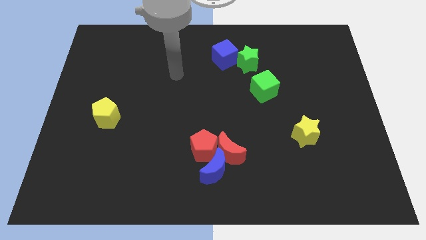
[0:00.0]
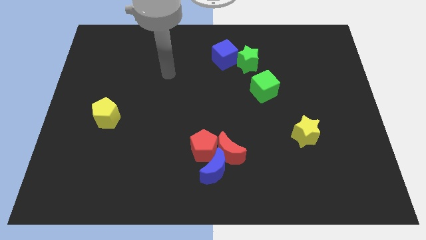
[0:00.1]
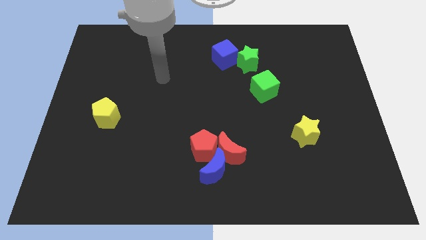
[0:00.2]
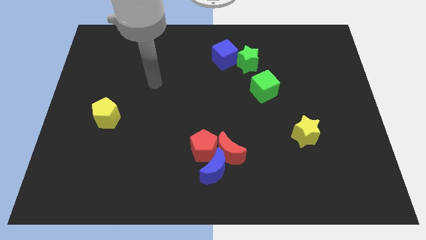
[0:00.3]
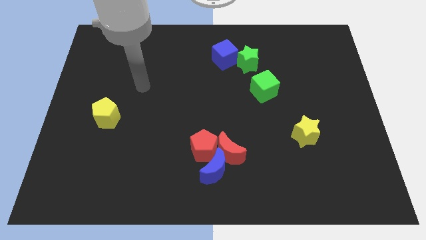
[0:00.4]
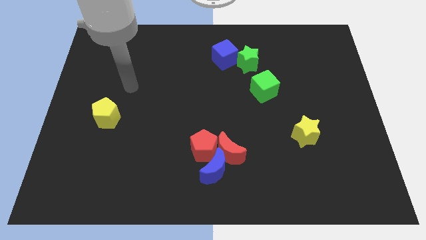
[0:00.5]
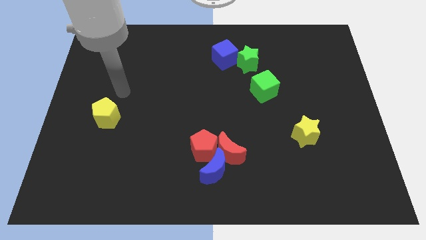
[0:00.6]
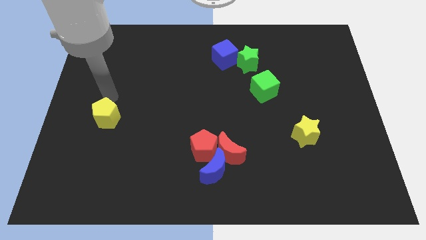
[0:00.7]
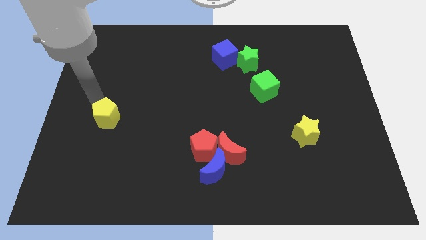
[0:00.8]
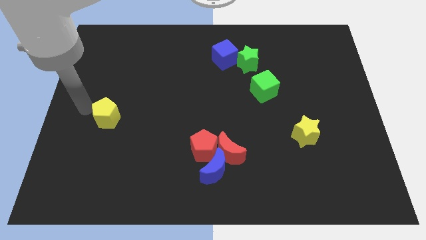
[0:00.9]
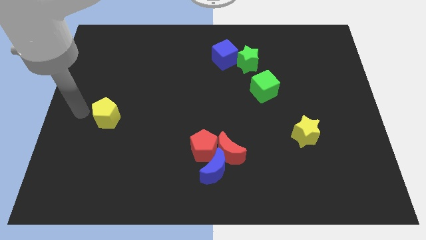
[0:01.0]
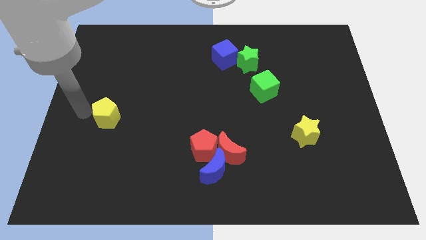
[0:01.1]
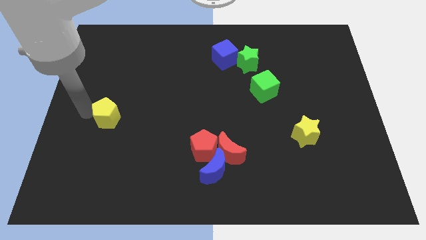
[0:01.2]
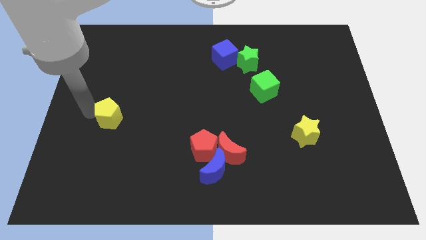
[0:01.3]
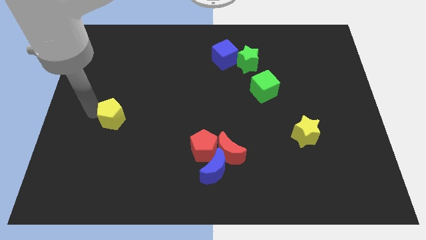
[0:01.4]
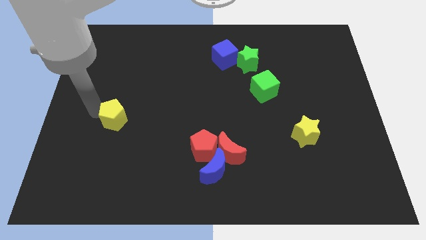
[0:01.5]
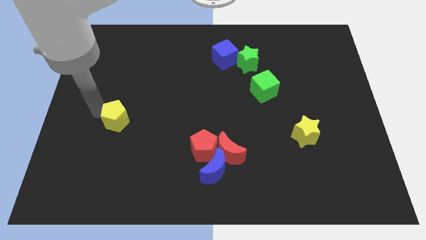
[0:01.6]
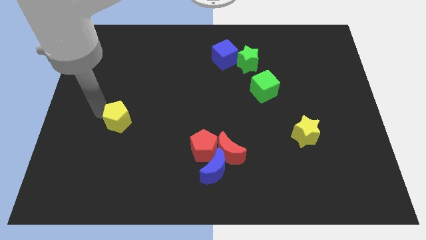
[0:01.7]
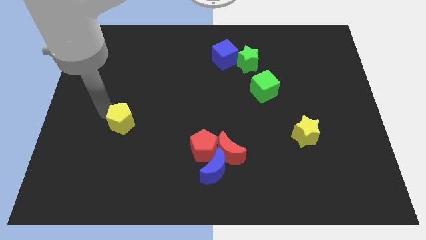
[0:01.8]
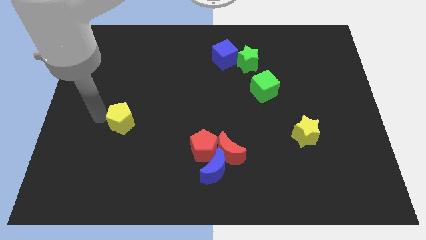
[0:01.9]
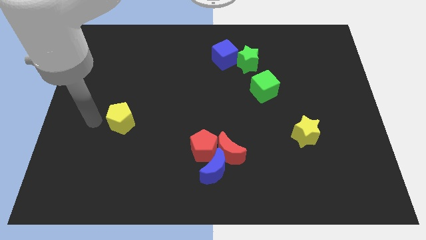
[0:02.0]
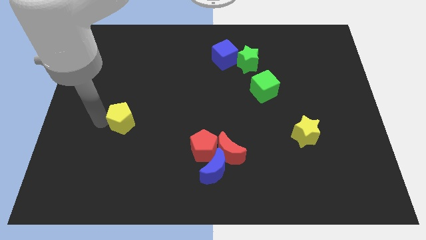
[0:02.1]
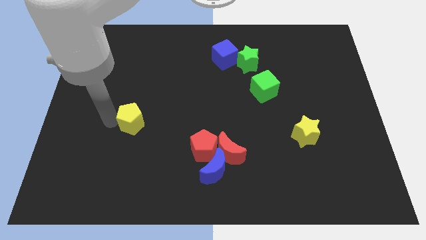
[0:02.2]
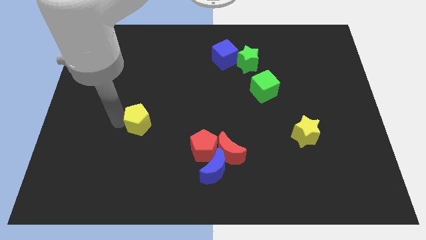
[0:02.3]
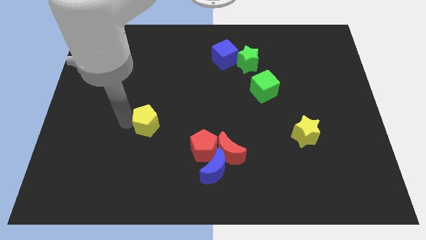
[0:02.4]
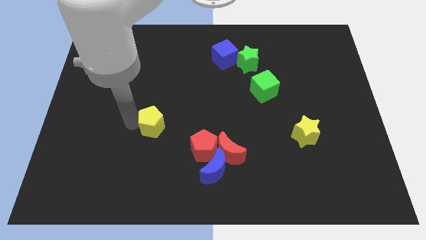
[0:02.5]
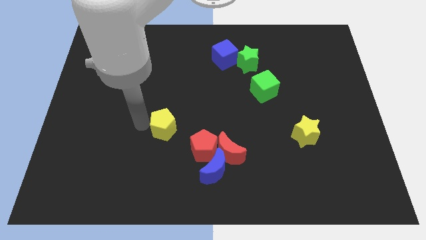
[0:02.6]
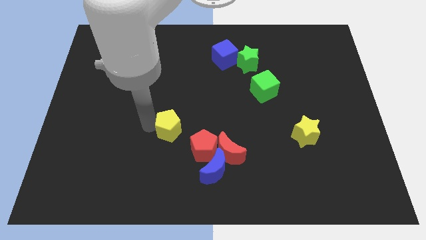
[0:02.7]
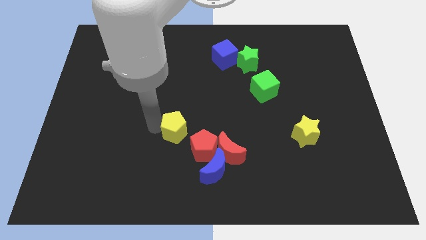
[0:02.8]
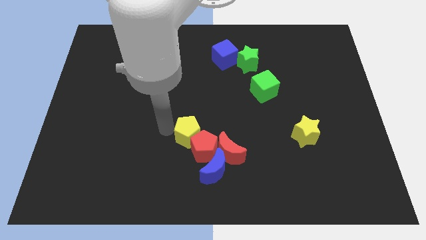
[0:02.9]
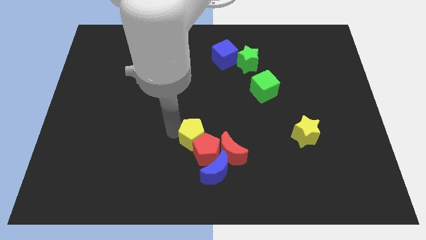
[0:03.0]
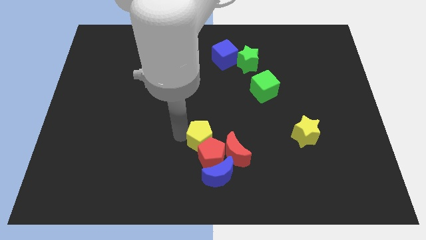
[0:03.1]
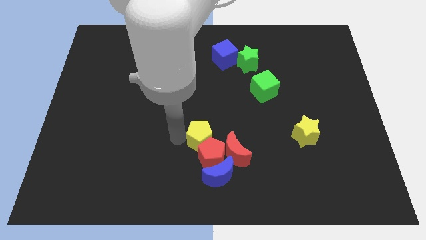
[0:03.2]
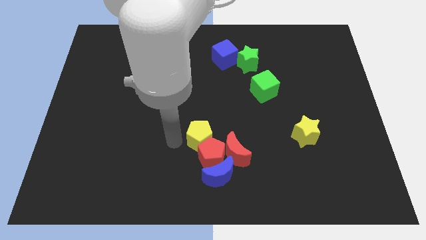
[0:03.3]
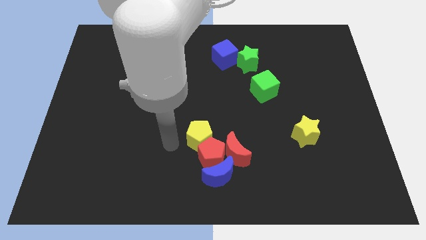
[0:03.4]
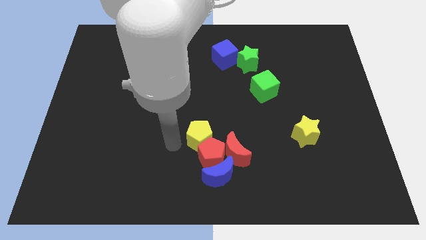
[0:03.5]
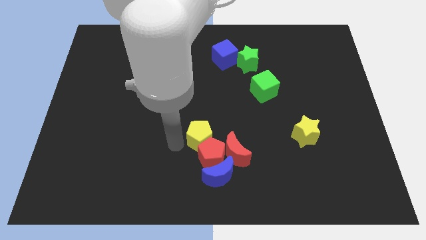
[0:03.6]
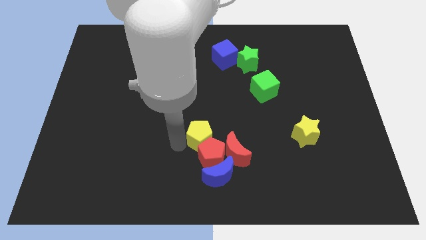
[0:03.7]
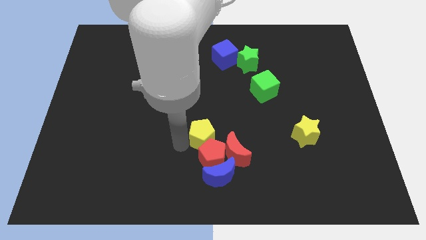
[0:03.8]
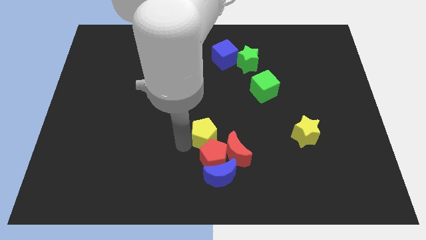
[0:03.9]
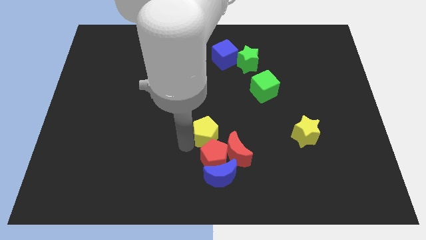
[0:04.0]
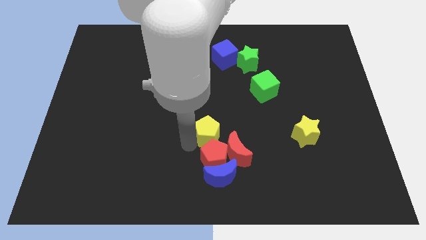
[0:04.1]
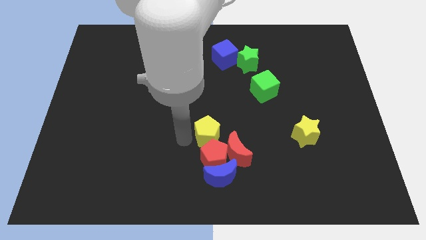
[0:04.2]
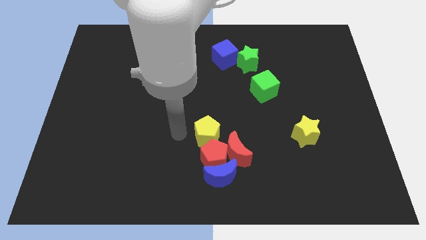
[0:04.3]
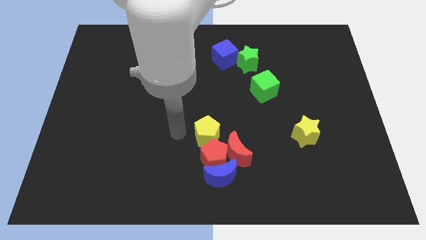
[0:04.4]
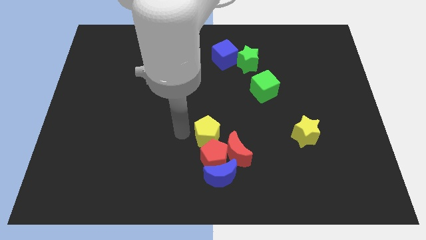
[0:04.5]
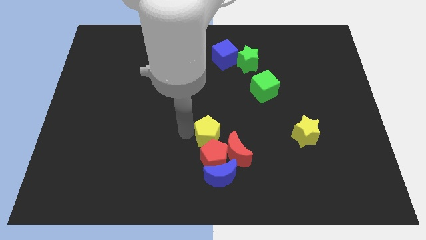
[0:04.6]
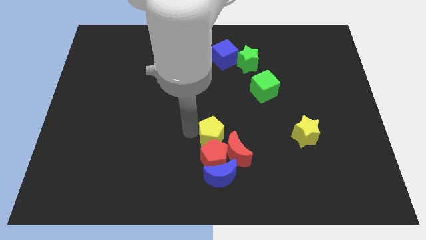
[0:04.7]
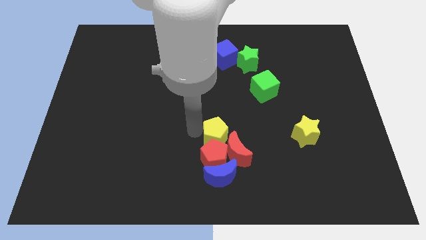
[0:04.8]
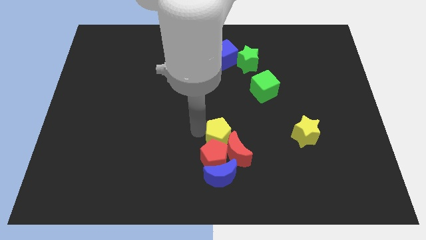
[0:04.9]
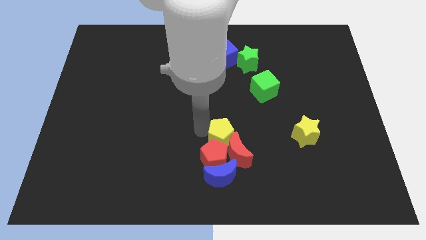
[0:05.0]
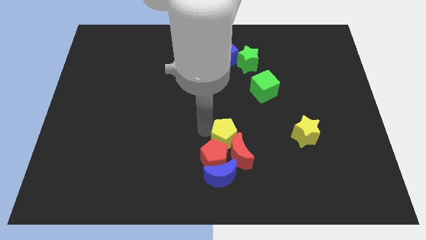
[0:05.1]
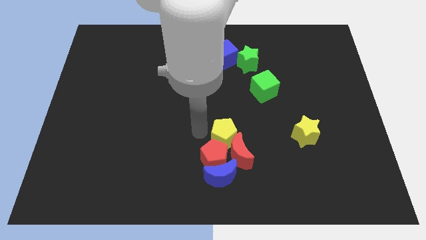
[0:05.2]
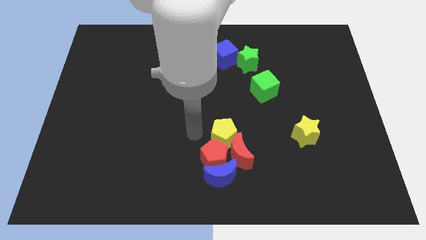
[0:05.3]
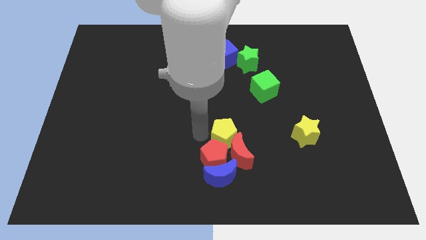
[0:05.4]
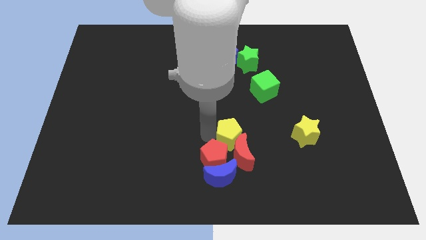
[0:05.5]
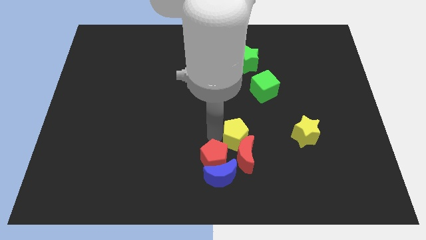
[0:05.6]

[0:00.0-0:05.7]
slide the yellow pentagon to the top right of the blue moon

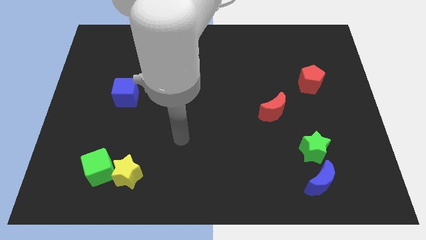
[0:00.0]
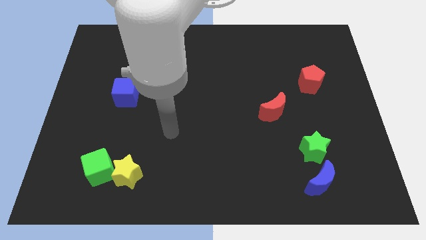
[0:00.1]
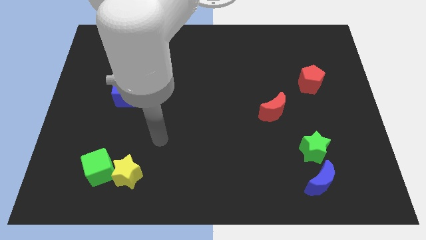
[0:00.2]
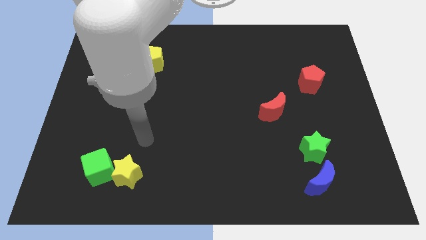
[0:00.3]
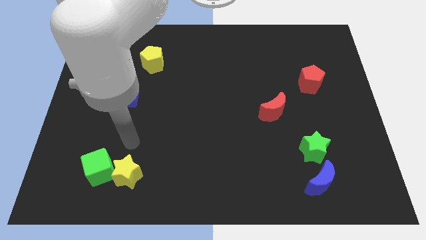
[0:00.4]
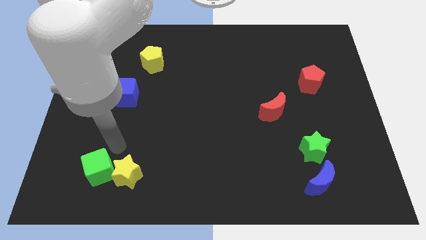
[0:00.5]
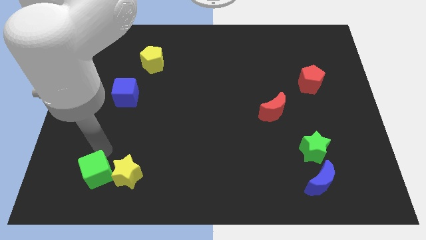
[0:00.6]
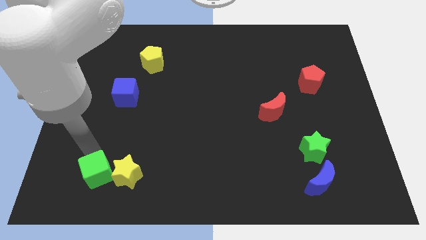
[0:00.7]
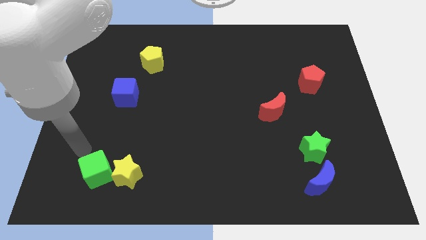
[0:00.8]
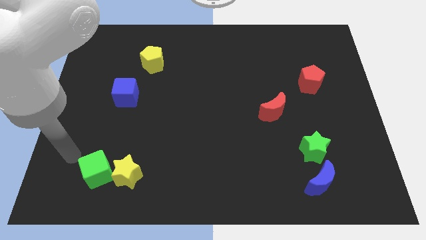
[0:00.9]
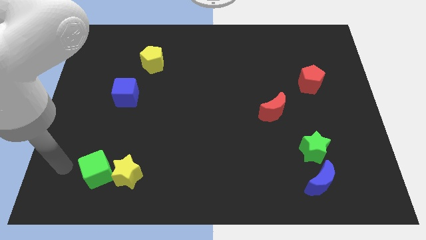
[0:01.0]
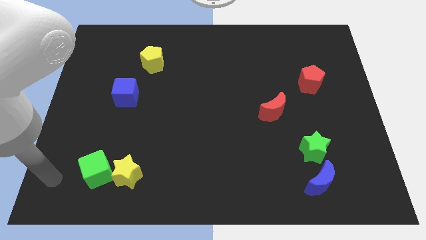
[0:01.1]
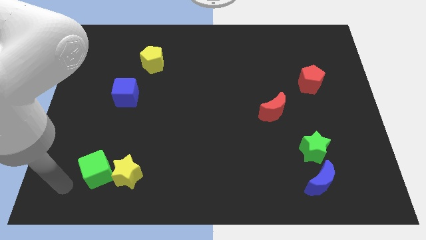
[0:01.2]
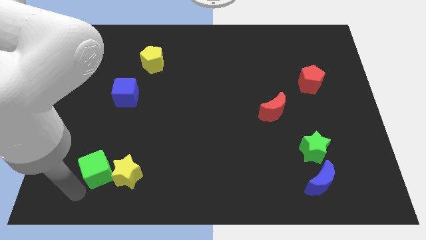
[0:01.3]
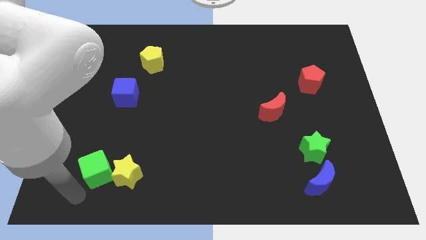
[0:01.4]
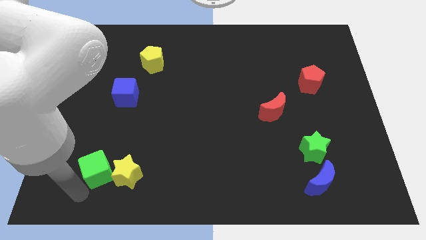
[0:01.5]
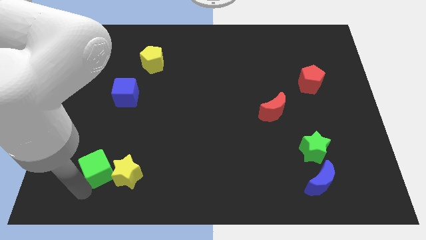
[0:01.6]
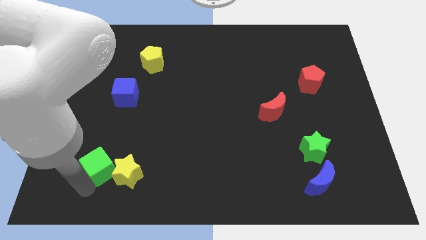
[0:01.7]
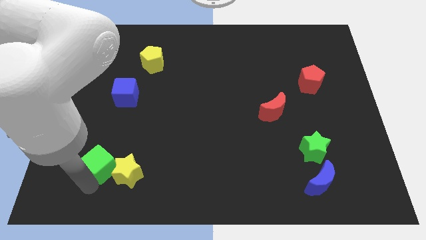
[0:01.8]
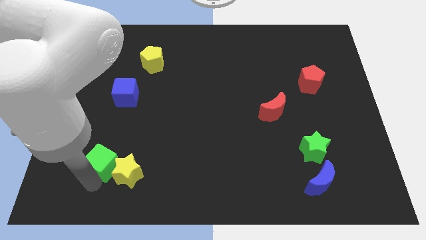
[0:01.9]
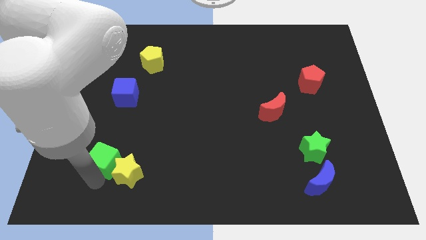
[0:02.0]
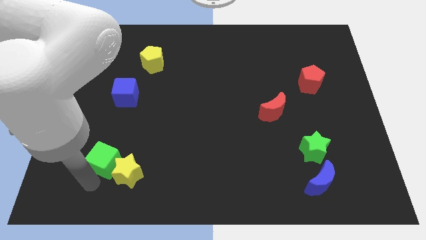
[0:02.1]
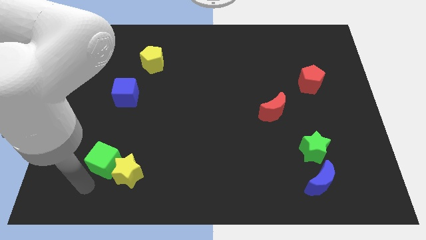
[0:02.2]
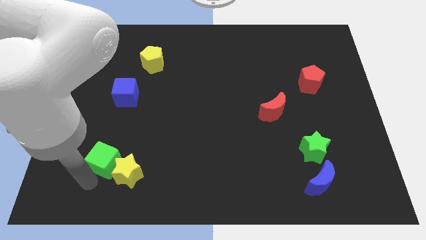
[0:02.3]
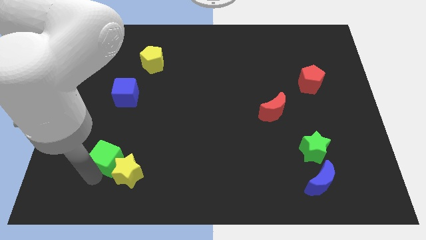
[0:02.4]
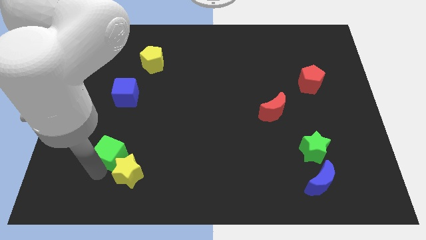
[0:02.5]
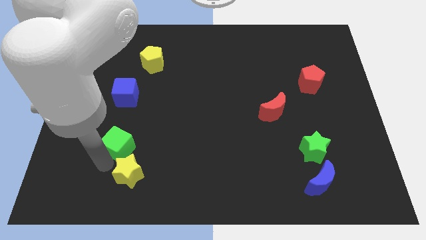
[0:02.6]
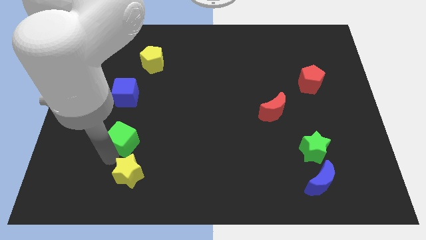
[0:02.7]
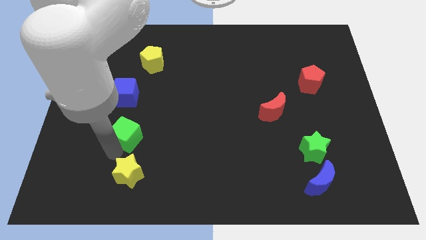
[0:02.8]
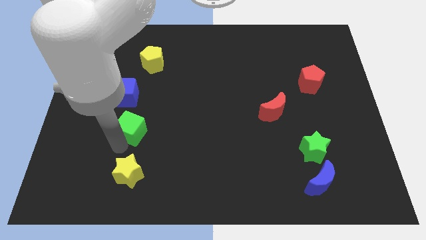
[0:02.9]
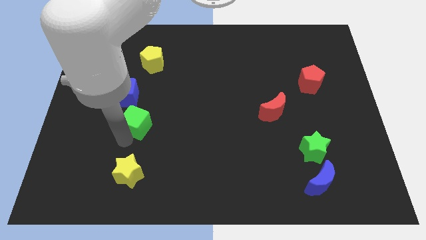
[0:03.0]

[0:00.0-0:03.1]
put the green cube diagonally down and to the right of the blue cube
